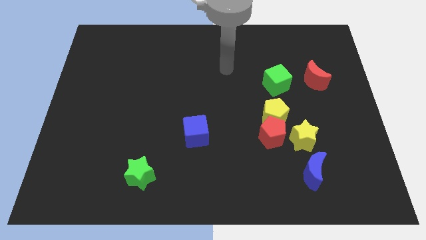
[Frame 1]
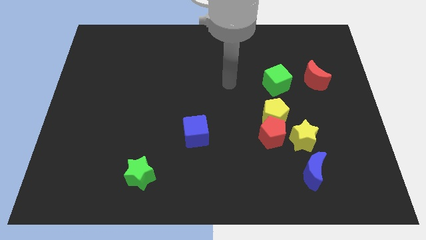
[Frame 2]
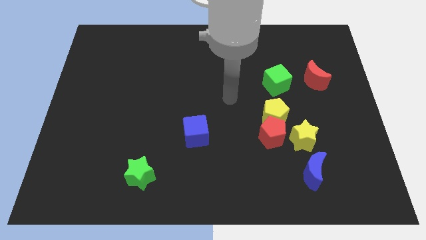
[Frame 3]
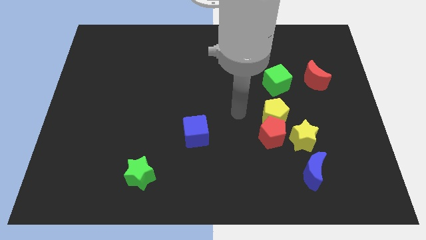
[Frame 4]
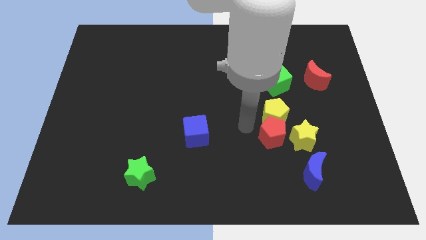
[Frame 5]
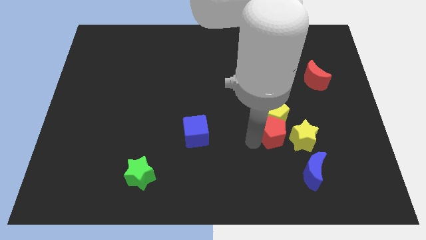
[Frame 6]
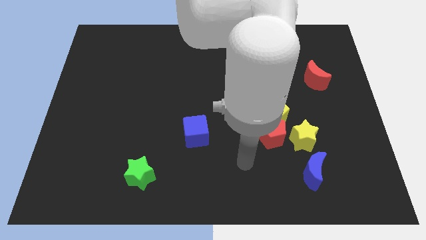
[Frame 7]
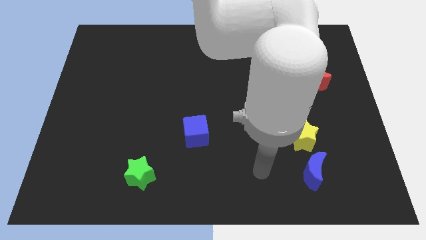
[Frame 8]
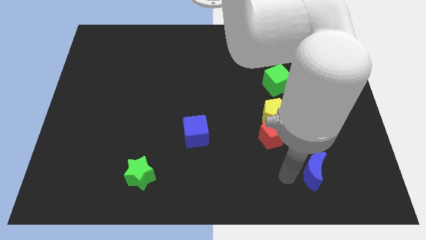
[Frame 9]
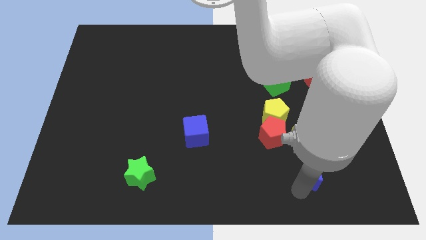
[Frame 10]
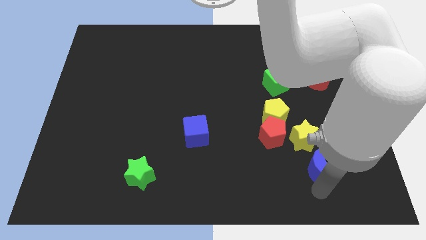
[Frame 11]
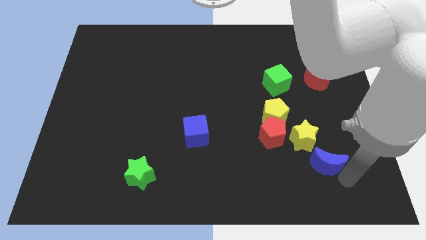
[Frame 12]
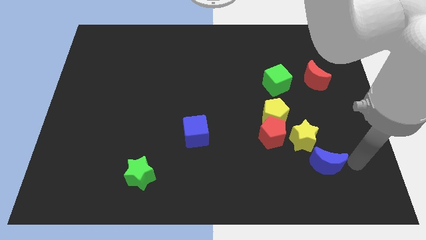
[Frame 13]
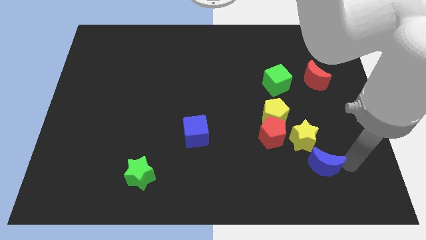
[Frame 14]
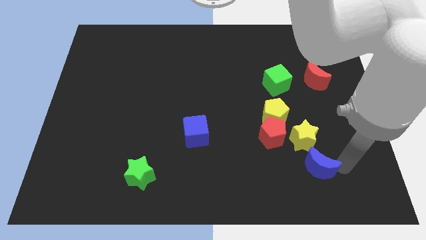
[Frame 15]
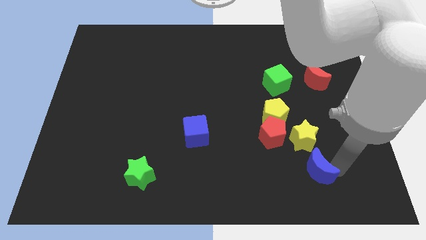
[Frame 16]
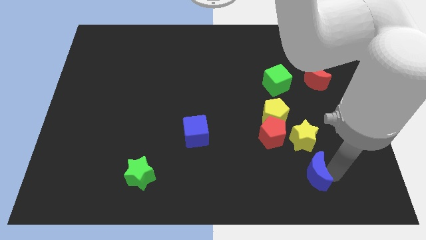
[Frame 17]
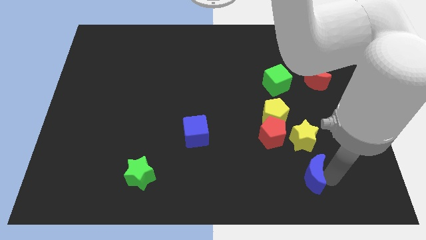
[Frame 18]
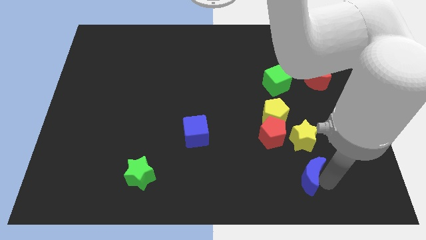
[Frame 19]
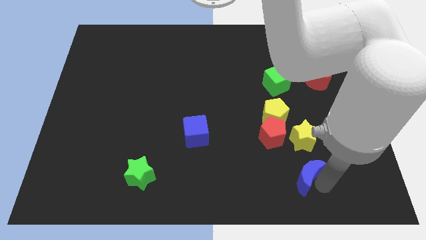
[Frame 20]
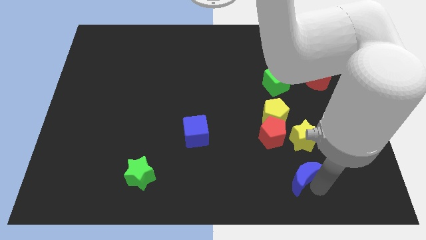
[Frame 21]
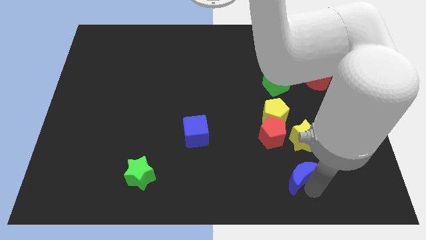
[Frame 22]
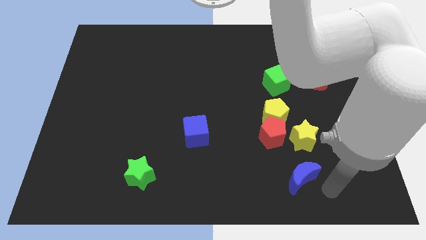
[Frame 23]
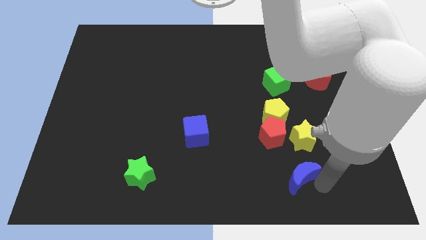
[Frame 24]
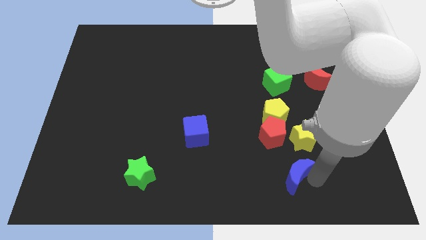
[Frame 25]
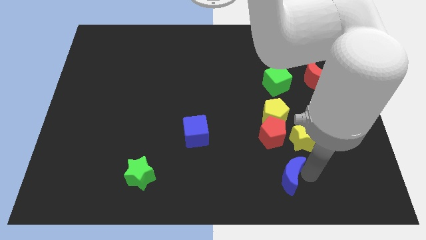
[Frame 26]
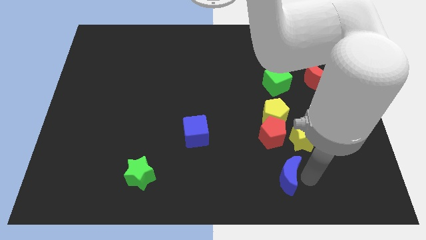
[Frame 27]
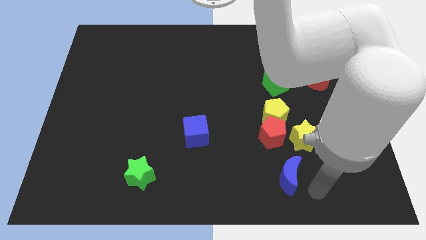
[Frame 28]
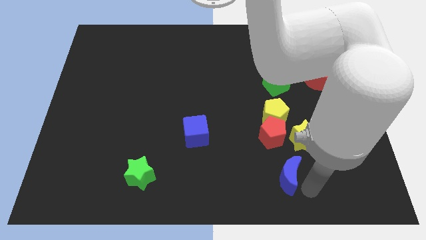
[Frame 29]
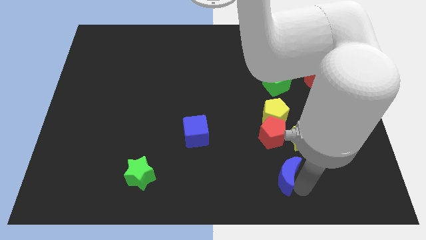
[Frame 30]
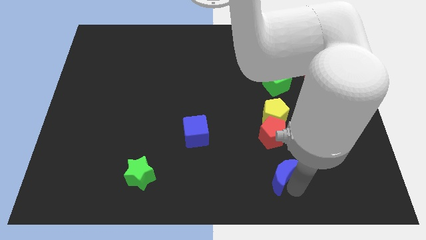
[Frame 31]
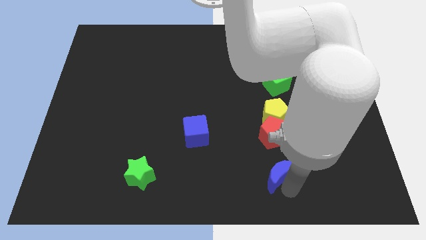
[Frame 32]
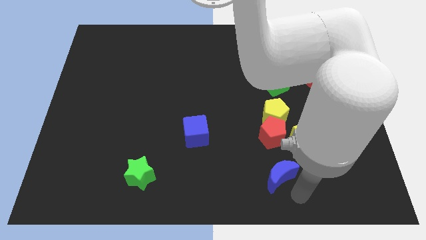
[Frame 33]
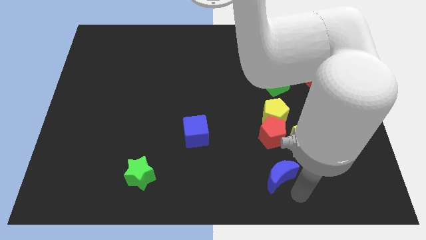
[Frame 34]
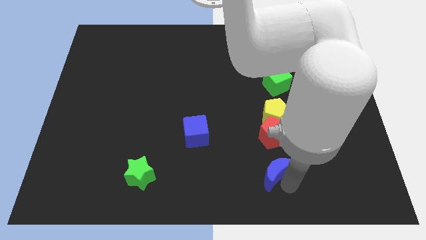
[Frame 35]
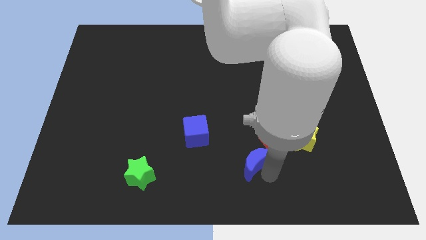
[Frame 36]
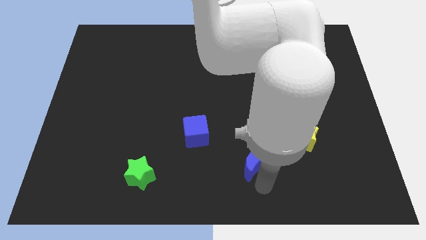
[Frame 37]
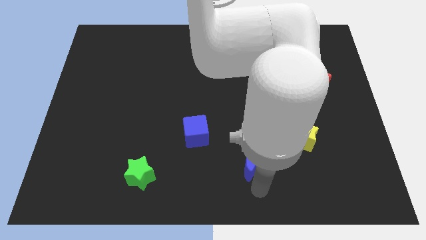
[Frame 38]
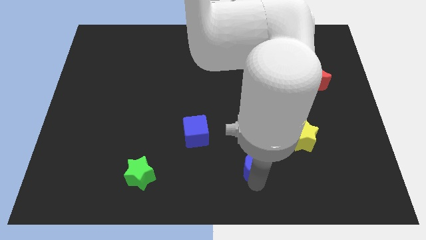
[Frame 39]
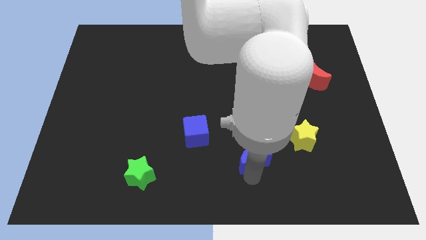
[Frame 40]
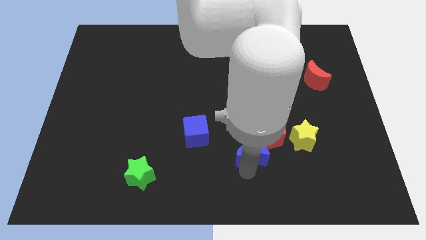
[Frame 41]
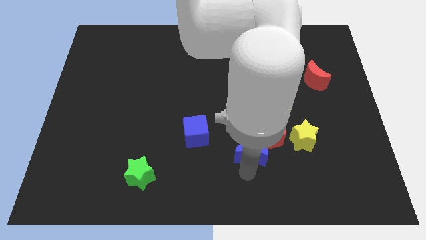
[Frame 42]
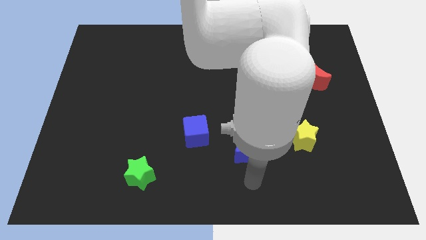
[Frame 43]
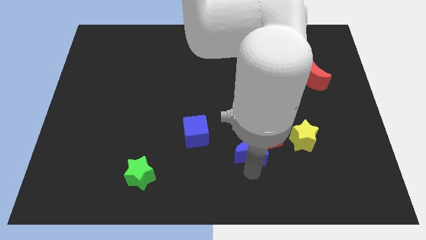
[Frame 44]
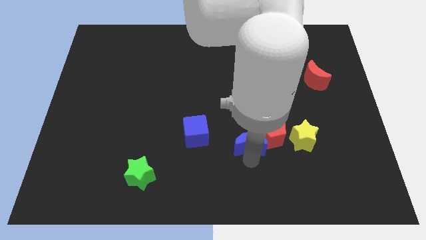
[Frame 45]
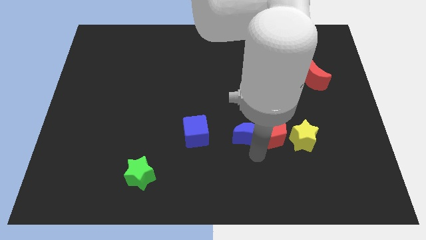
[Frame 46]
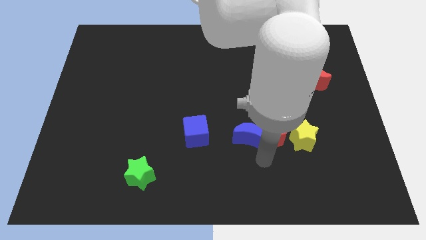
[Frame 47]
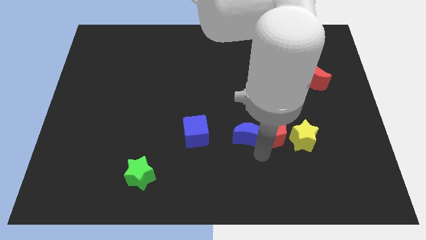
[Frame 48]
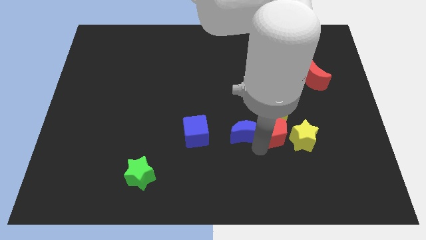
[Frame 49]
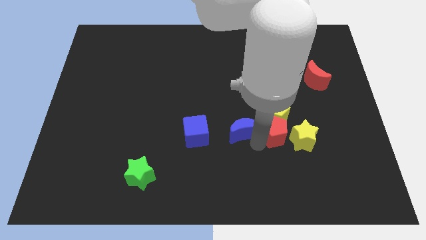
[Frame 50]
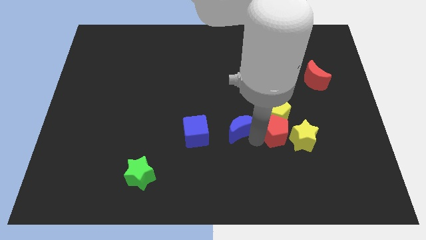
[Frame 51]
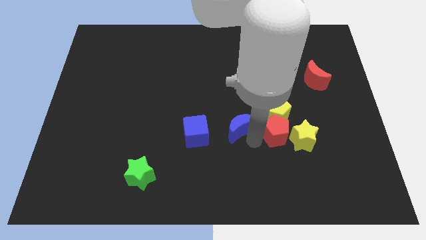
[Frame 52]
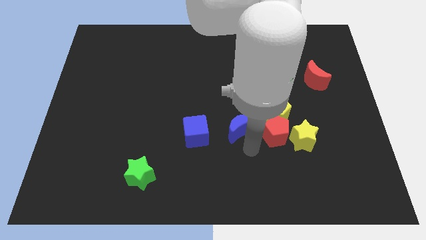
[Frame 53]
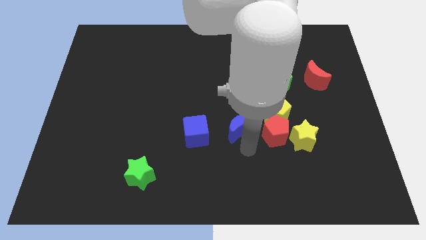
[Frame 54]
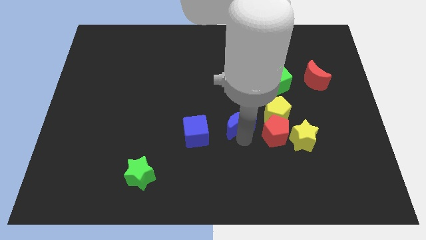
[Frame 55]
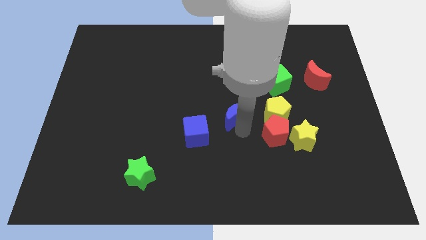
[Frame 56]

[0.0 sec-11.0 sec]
move the blue moon diagonally upwards and left

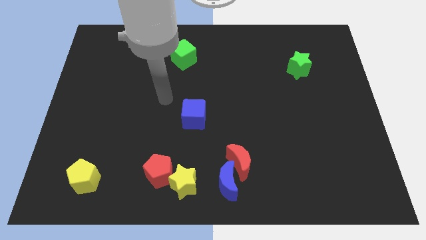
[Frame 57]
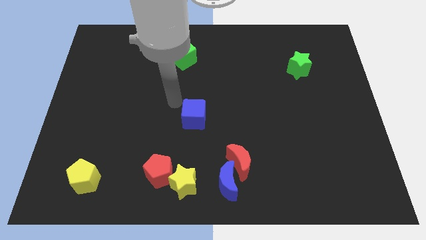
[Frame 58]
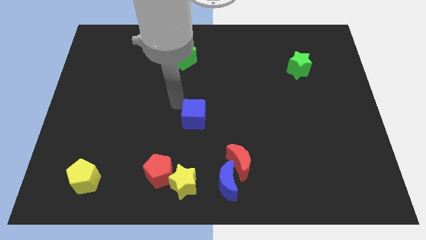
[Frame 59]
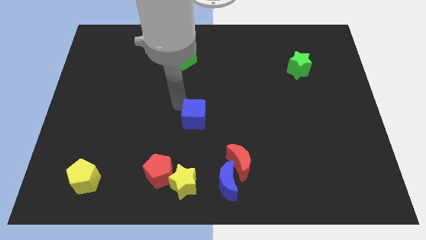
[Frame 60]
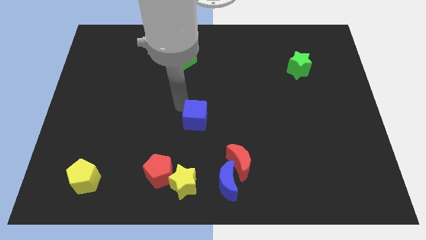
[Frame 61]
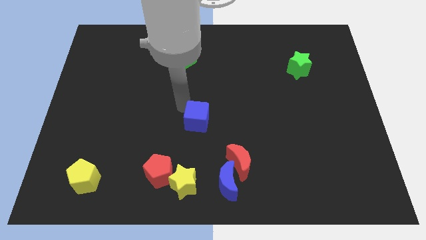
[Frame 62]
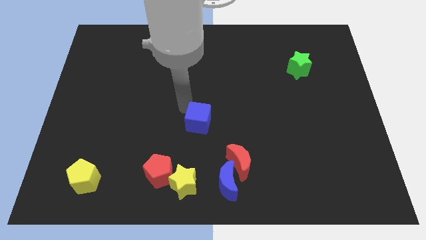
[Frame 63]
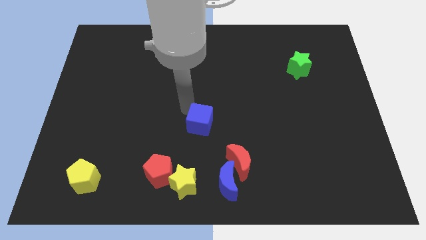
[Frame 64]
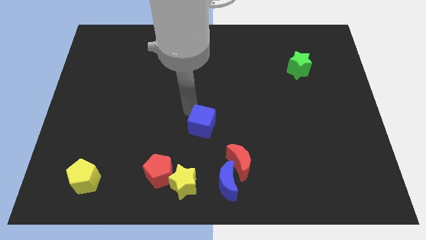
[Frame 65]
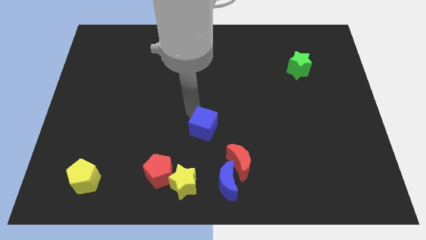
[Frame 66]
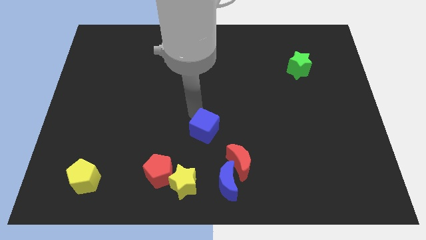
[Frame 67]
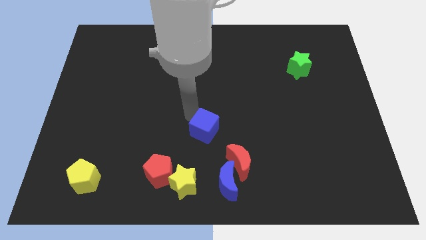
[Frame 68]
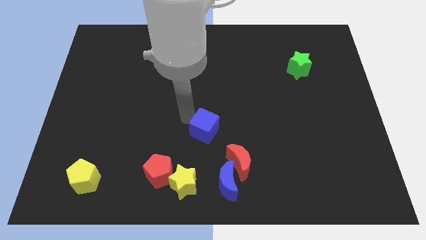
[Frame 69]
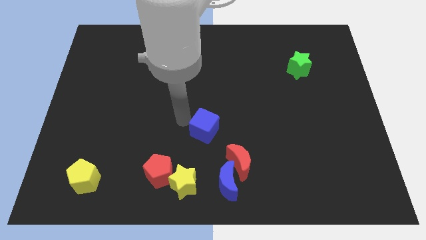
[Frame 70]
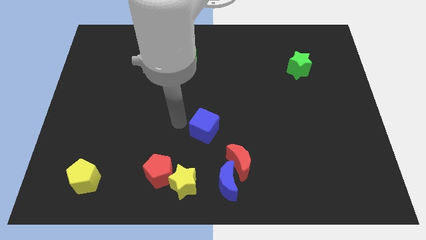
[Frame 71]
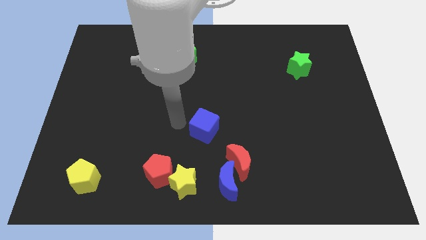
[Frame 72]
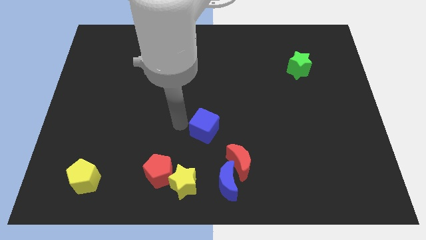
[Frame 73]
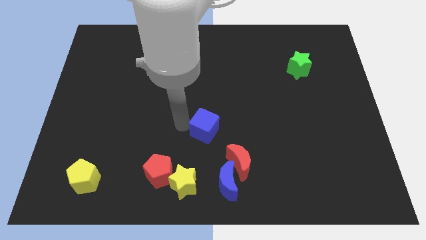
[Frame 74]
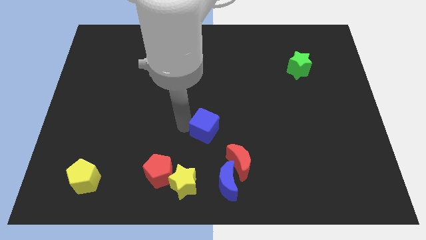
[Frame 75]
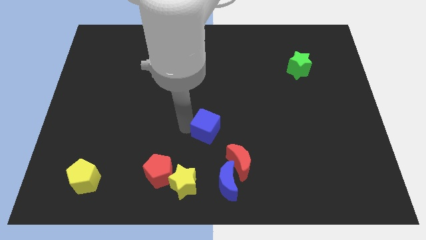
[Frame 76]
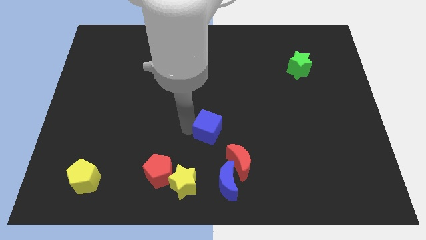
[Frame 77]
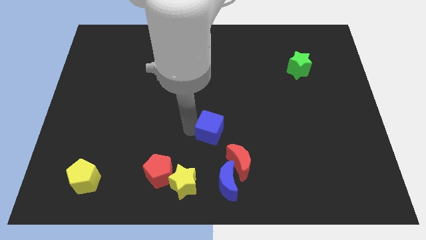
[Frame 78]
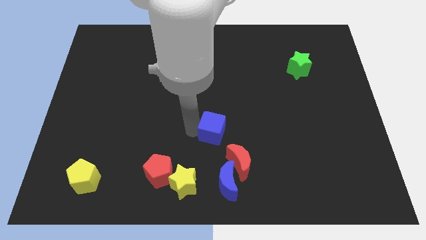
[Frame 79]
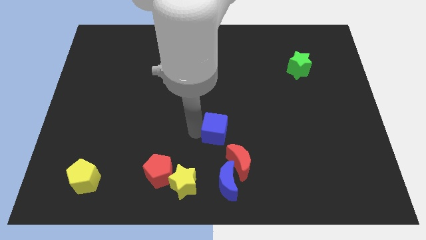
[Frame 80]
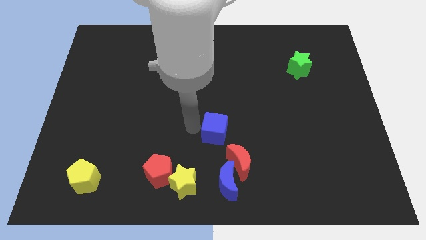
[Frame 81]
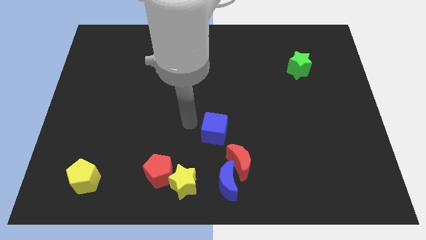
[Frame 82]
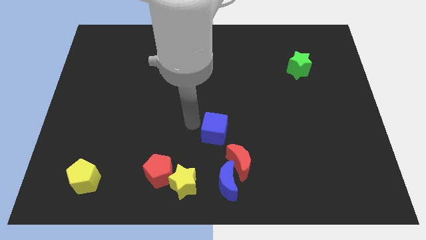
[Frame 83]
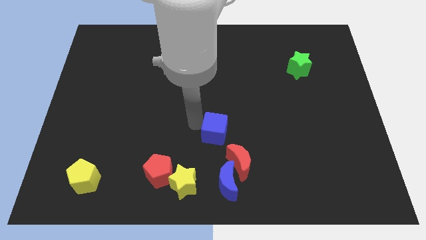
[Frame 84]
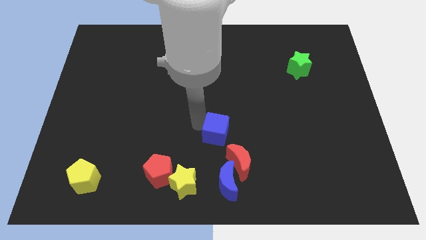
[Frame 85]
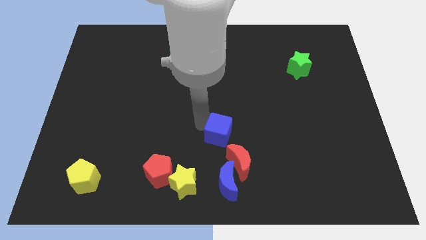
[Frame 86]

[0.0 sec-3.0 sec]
move the blue cube a bit downwards and then right
